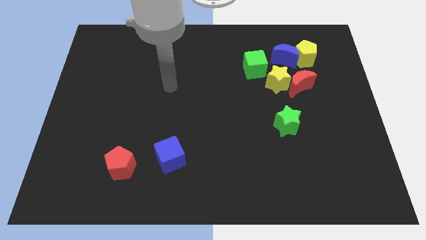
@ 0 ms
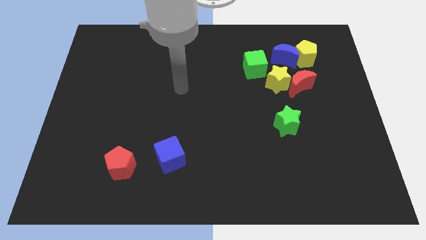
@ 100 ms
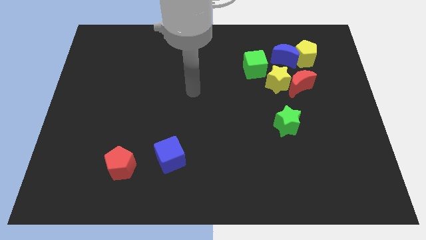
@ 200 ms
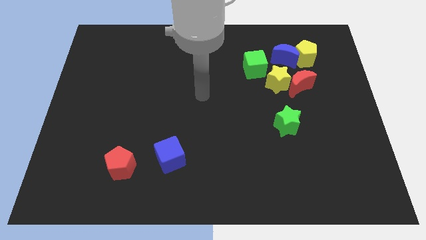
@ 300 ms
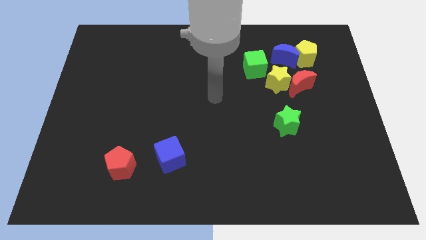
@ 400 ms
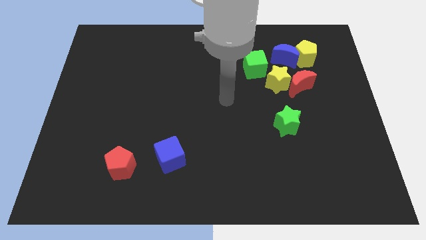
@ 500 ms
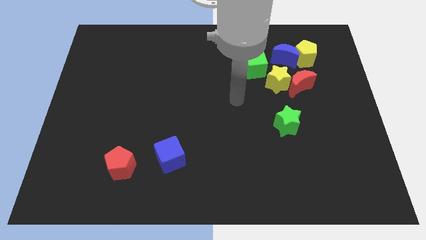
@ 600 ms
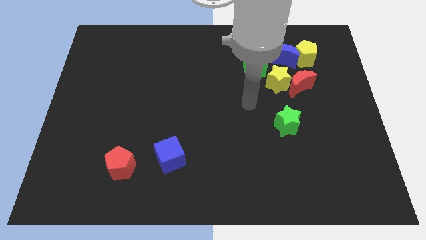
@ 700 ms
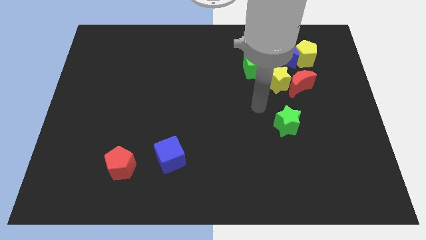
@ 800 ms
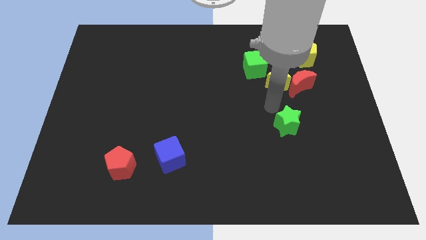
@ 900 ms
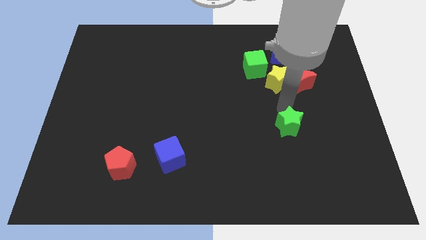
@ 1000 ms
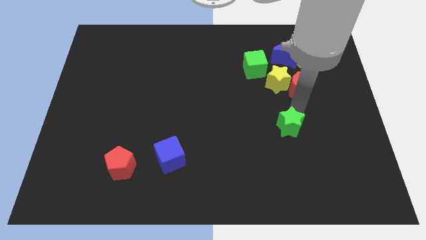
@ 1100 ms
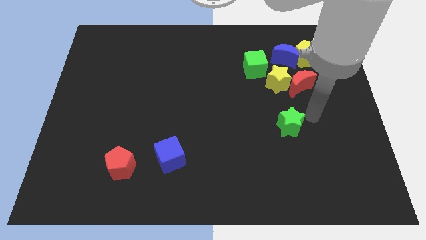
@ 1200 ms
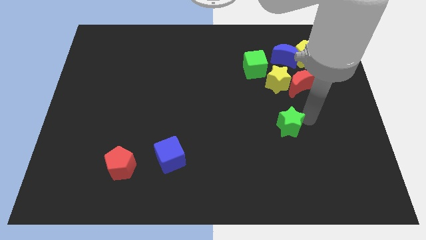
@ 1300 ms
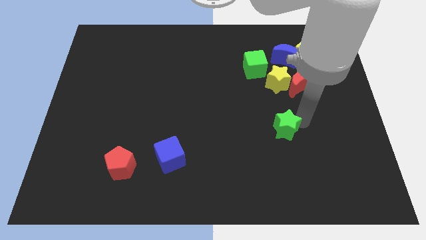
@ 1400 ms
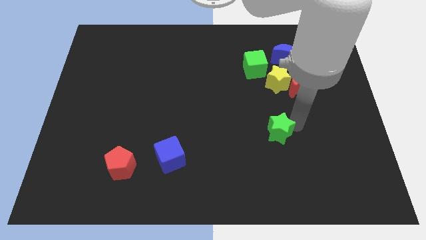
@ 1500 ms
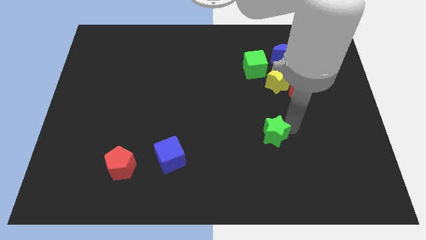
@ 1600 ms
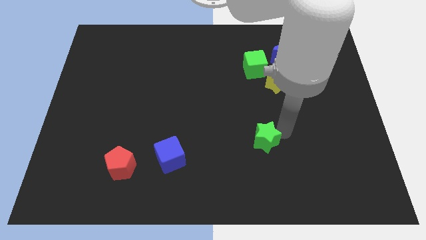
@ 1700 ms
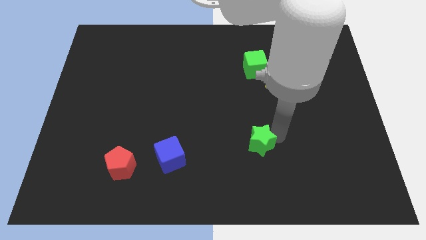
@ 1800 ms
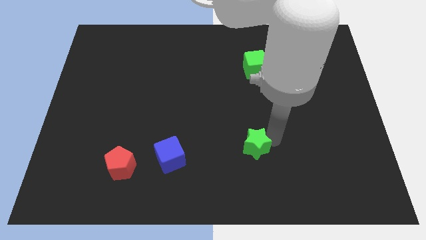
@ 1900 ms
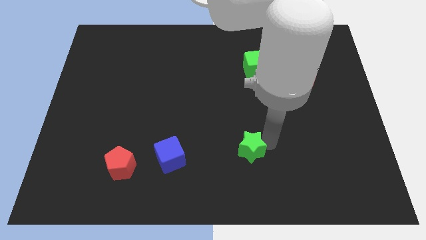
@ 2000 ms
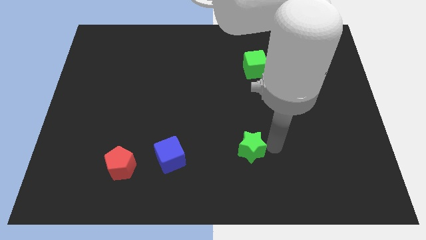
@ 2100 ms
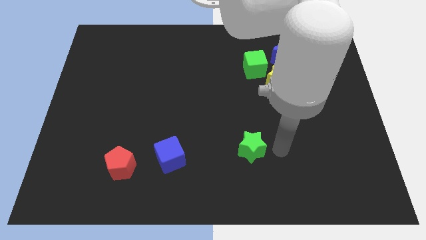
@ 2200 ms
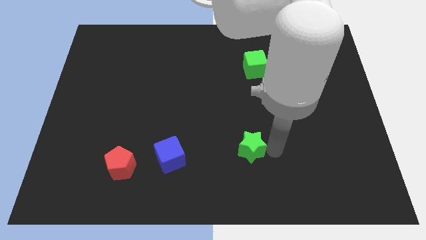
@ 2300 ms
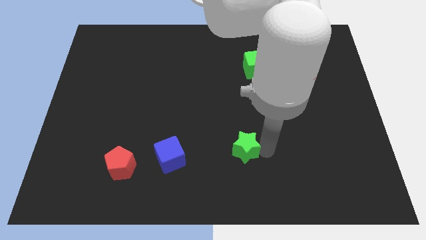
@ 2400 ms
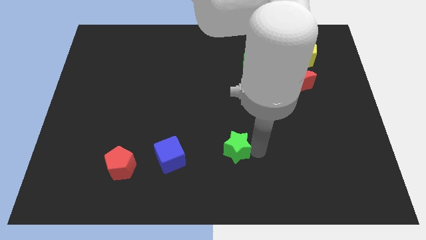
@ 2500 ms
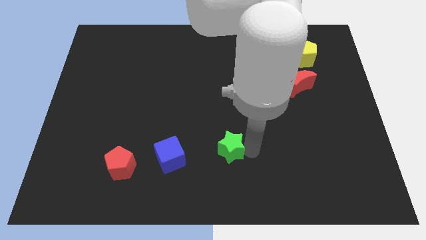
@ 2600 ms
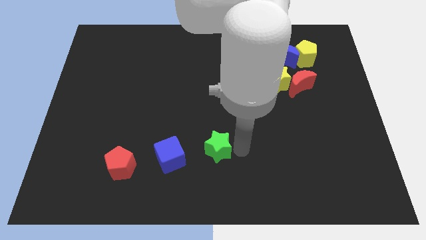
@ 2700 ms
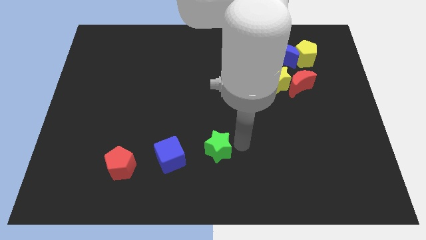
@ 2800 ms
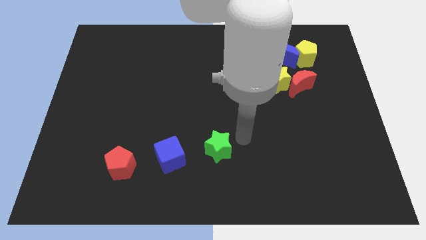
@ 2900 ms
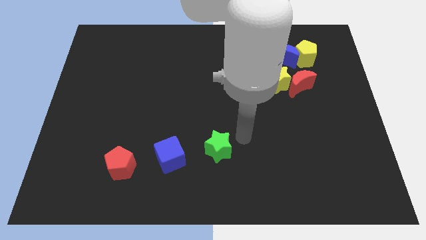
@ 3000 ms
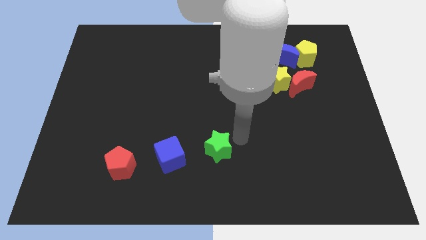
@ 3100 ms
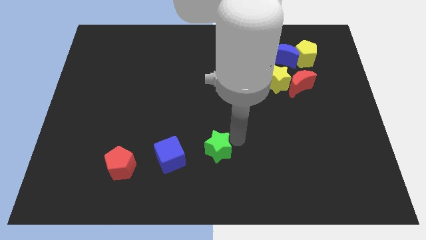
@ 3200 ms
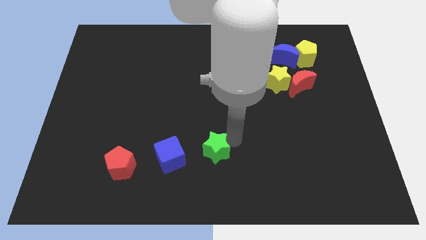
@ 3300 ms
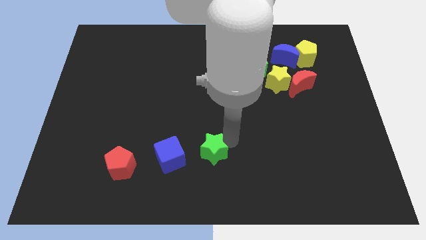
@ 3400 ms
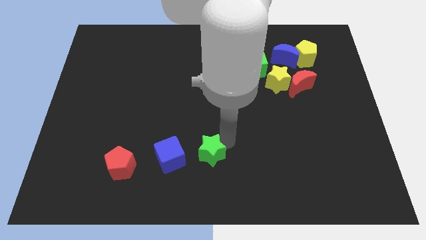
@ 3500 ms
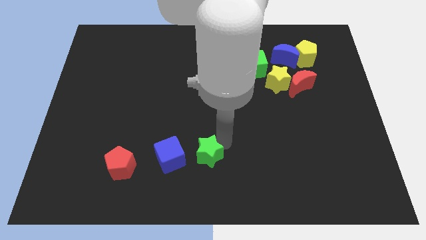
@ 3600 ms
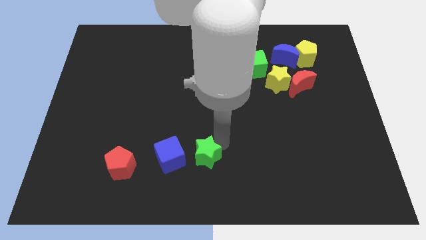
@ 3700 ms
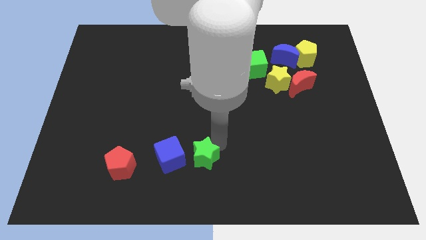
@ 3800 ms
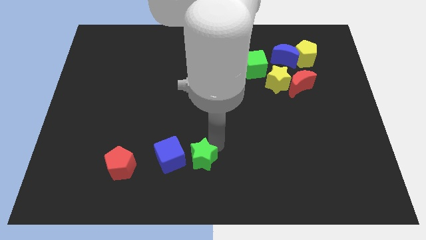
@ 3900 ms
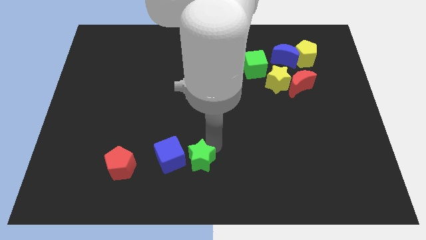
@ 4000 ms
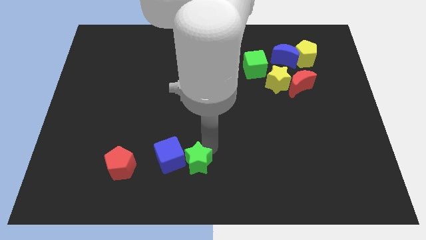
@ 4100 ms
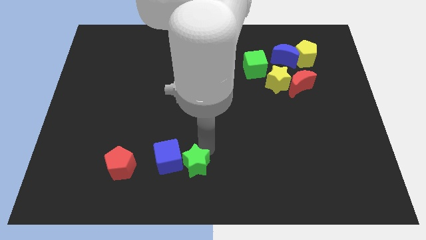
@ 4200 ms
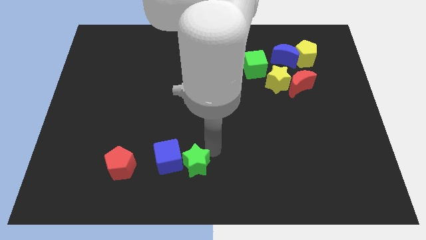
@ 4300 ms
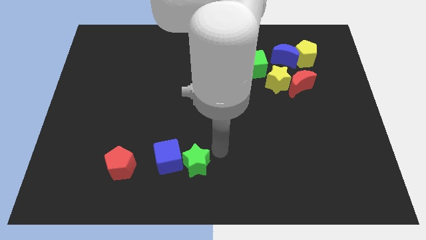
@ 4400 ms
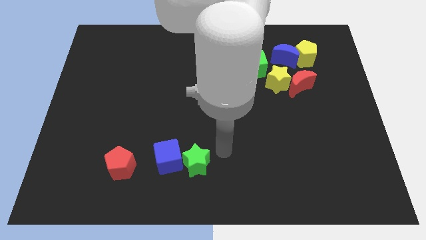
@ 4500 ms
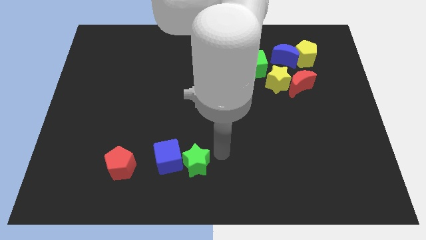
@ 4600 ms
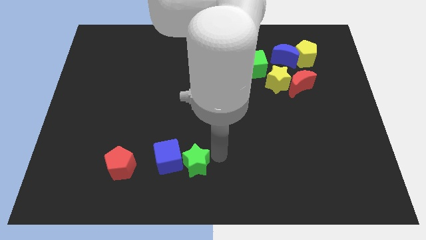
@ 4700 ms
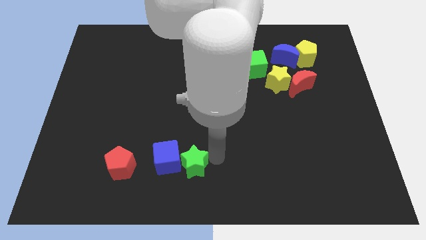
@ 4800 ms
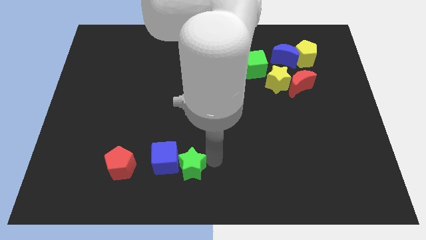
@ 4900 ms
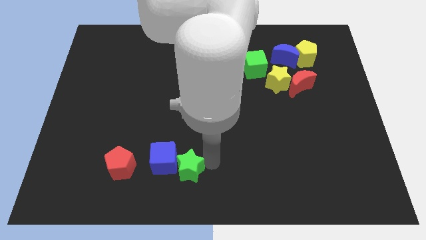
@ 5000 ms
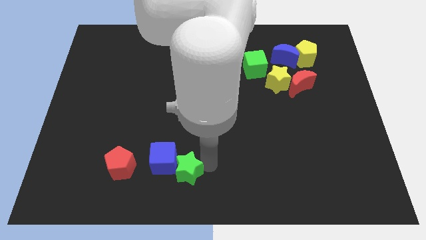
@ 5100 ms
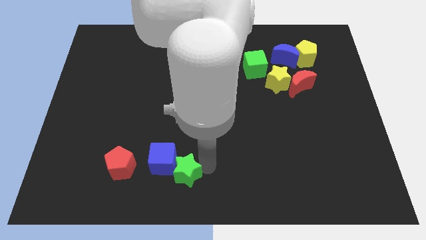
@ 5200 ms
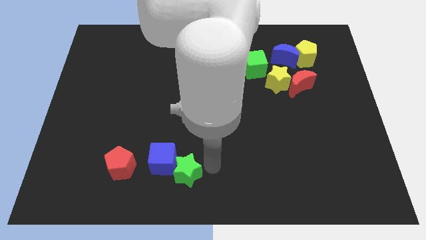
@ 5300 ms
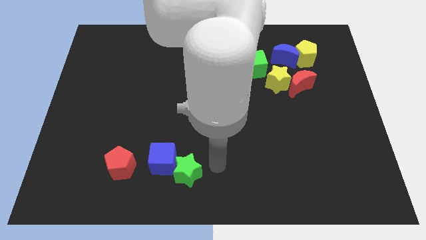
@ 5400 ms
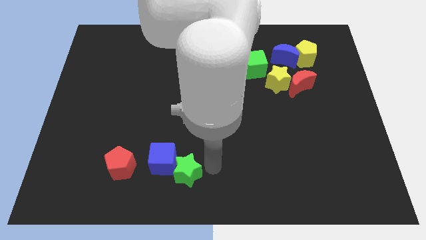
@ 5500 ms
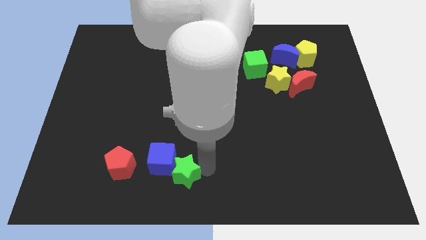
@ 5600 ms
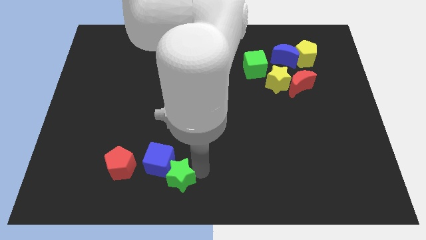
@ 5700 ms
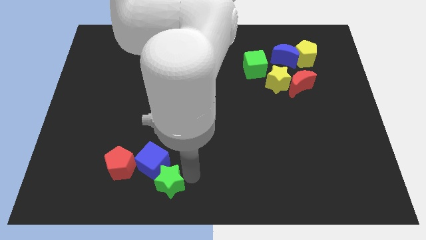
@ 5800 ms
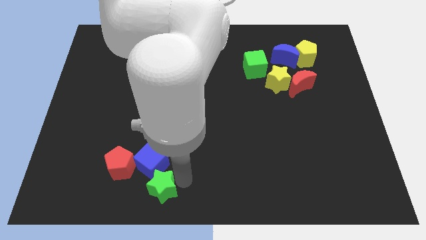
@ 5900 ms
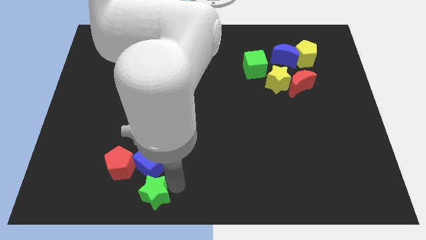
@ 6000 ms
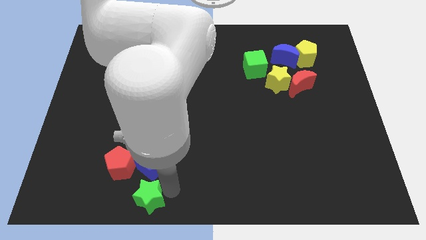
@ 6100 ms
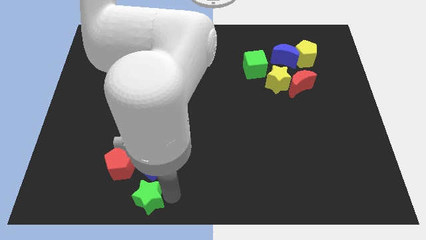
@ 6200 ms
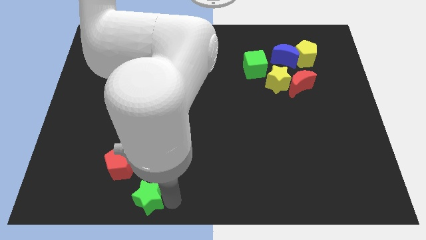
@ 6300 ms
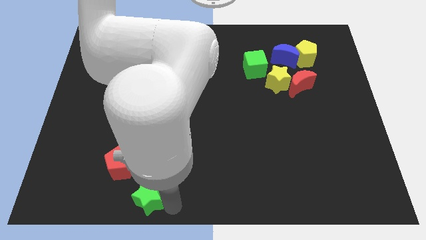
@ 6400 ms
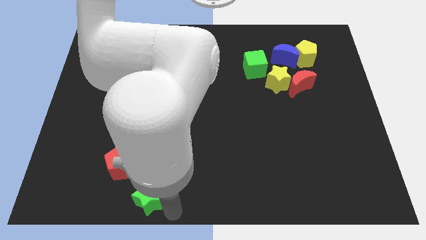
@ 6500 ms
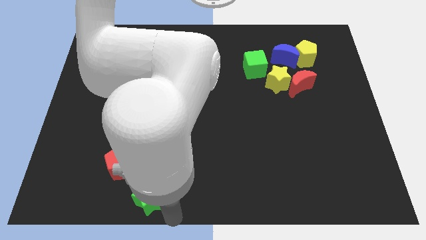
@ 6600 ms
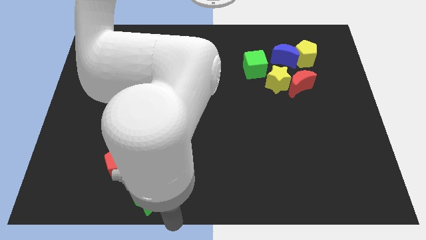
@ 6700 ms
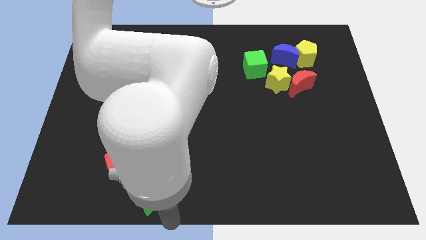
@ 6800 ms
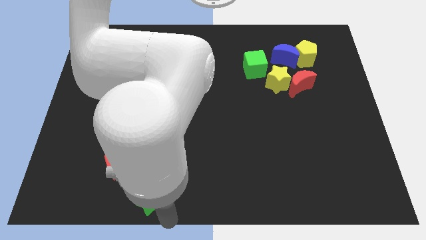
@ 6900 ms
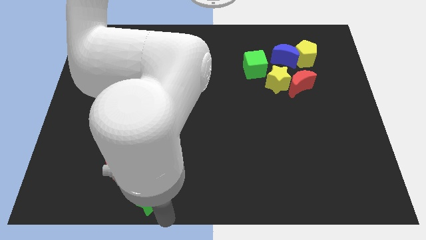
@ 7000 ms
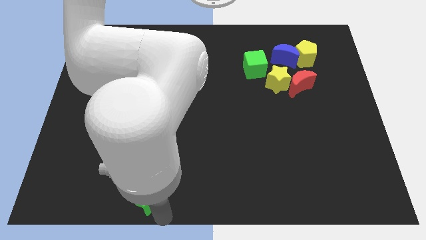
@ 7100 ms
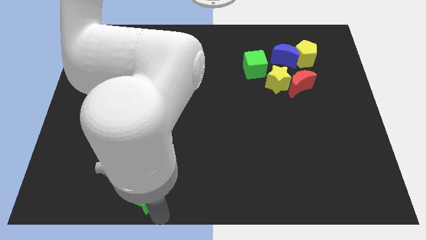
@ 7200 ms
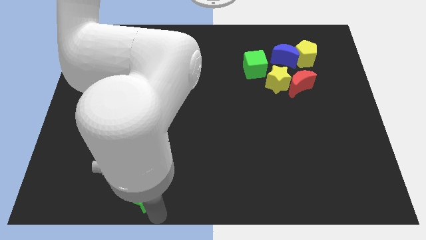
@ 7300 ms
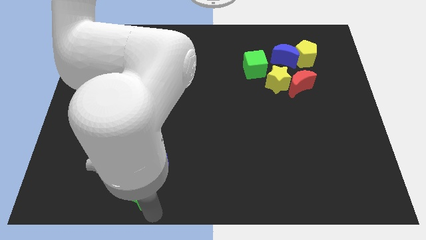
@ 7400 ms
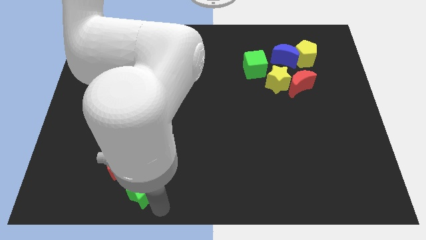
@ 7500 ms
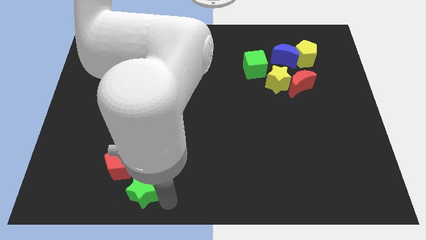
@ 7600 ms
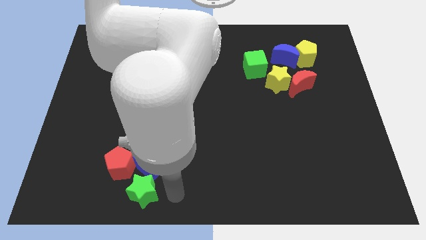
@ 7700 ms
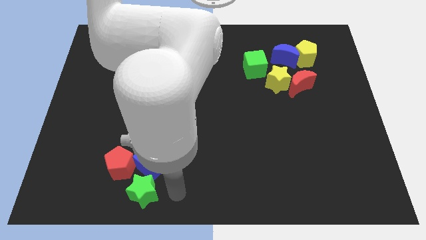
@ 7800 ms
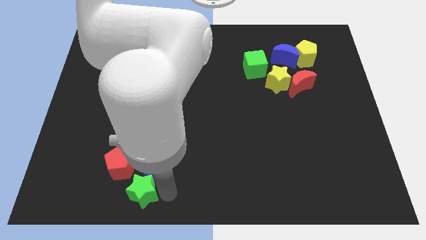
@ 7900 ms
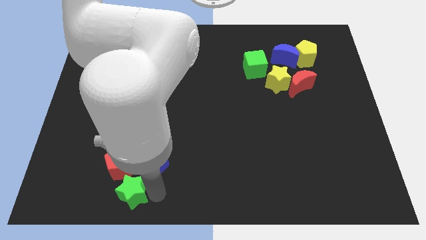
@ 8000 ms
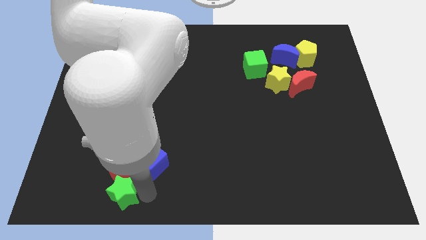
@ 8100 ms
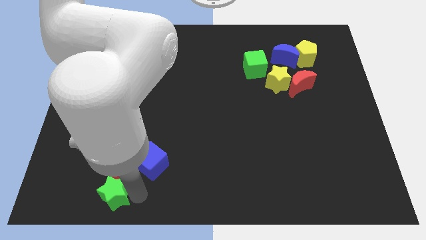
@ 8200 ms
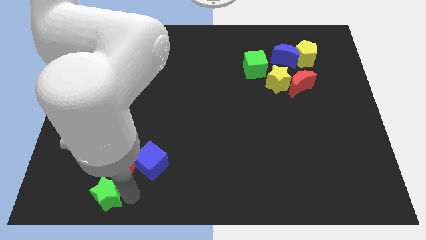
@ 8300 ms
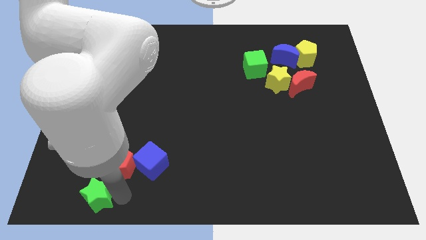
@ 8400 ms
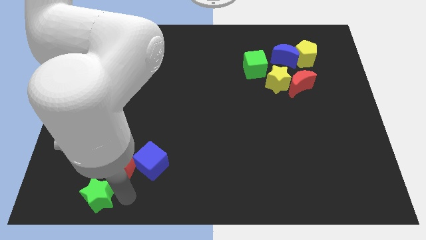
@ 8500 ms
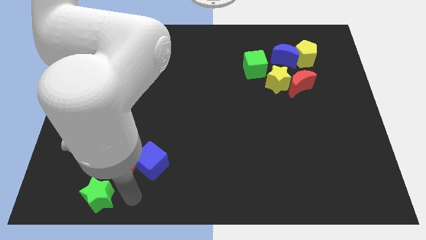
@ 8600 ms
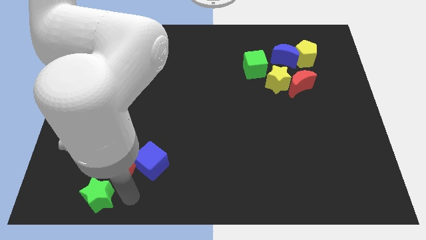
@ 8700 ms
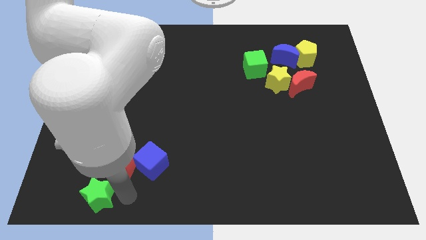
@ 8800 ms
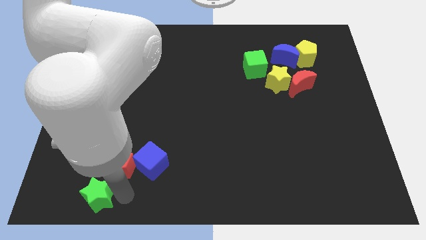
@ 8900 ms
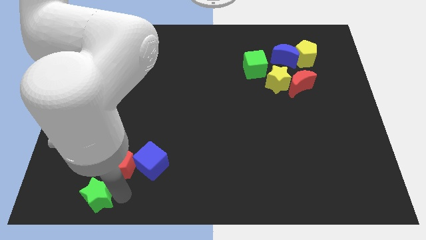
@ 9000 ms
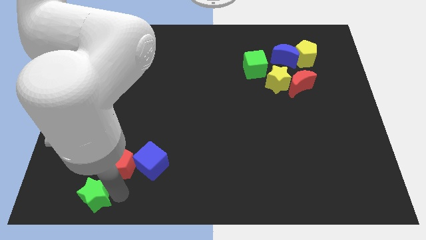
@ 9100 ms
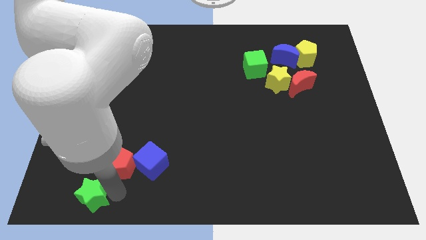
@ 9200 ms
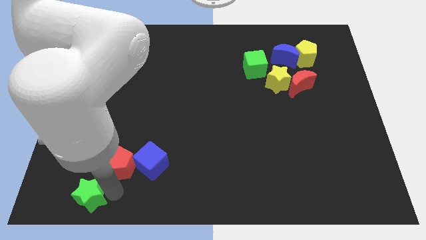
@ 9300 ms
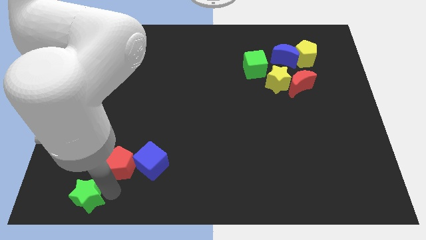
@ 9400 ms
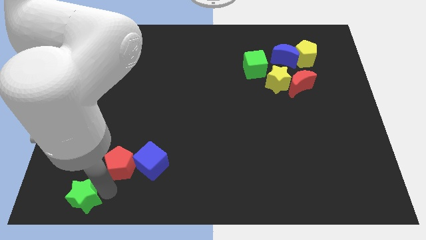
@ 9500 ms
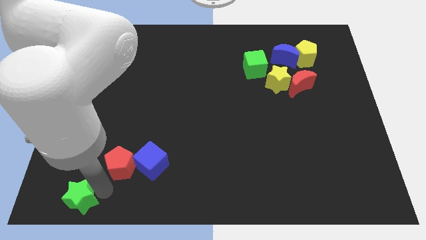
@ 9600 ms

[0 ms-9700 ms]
move the green star to the bottom left
